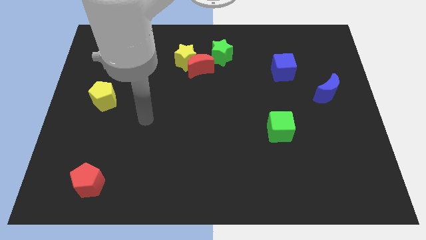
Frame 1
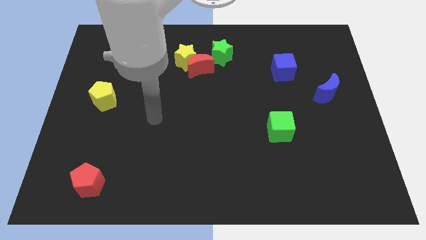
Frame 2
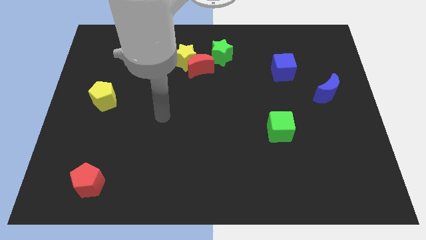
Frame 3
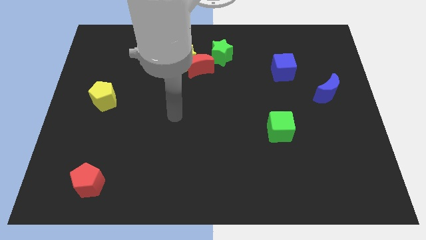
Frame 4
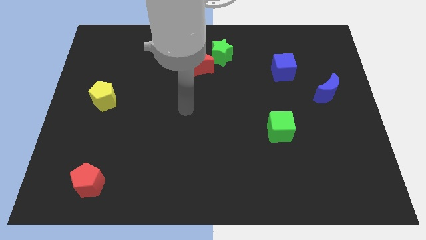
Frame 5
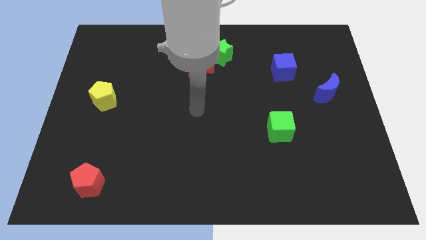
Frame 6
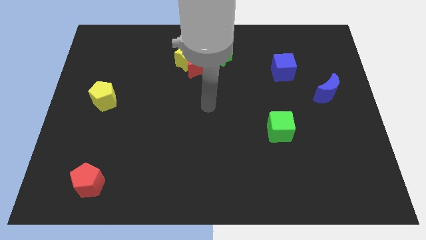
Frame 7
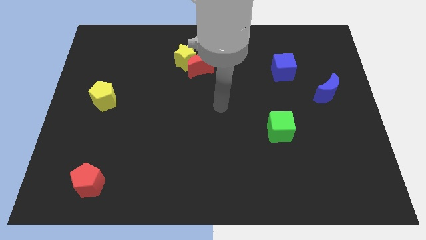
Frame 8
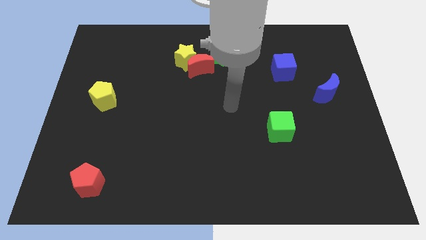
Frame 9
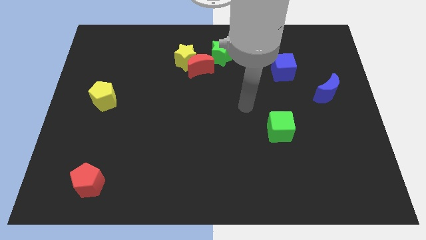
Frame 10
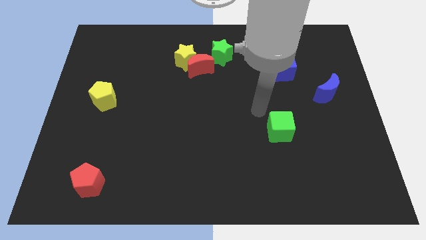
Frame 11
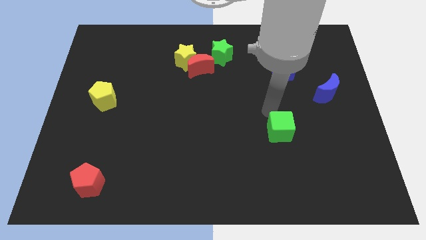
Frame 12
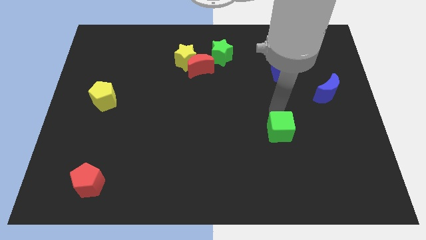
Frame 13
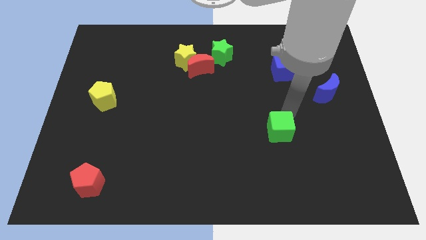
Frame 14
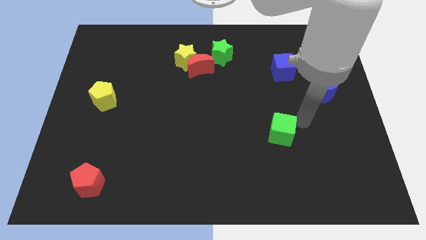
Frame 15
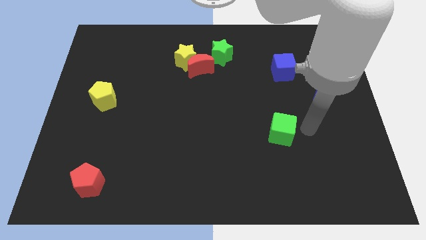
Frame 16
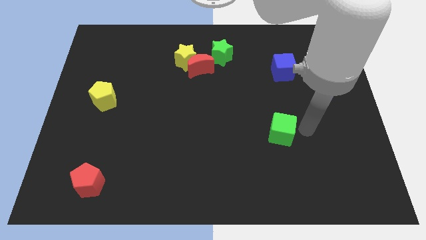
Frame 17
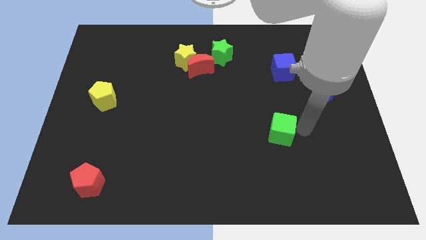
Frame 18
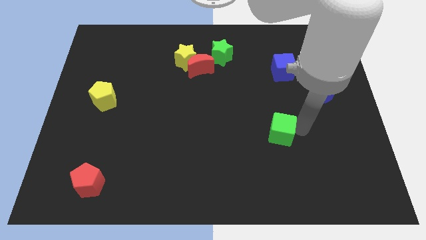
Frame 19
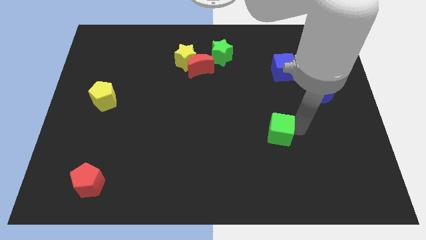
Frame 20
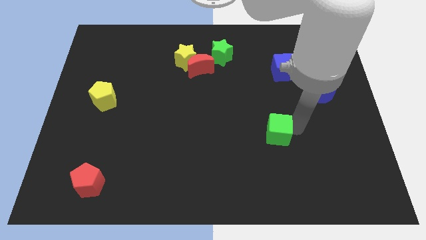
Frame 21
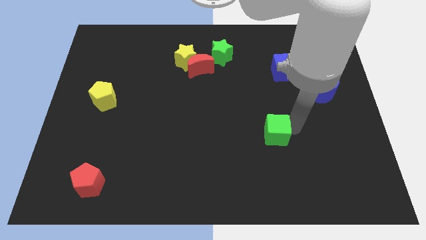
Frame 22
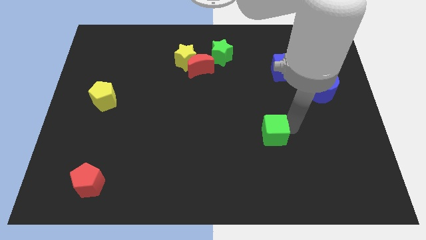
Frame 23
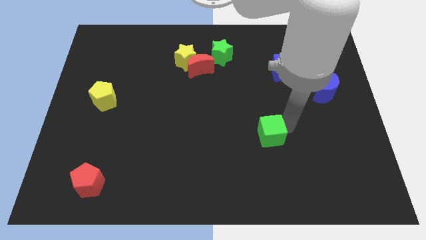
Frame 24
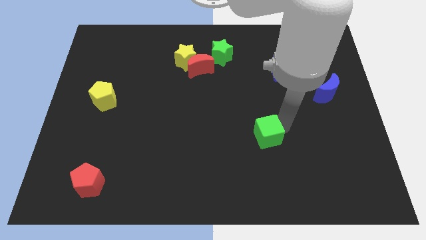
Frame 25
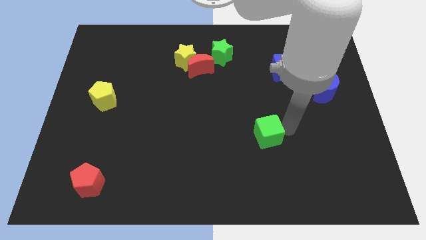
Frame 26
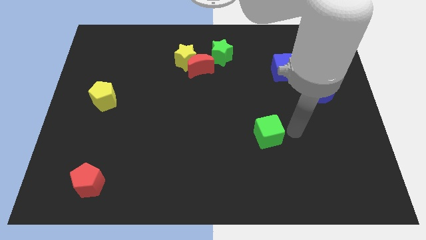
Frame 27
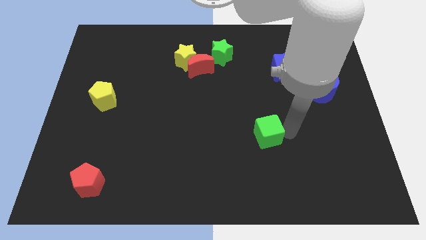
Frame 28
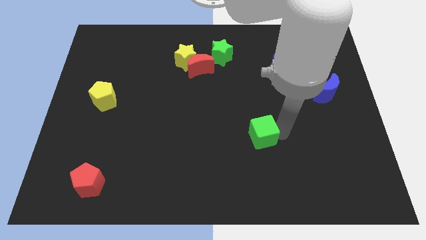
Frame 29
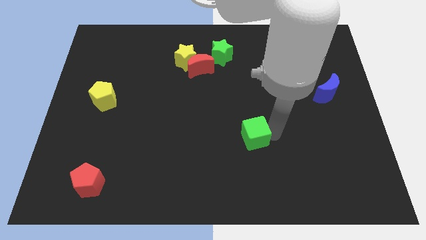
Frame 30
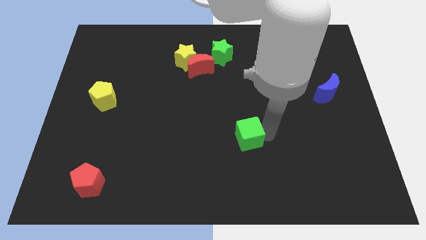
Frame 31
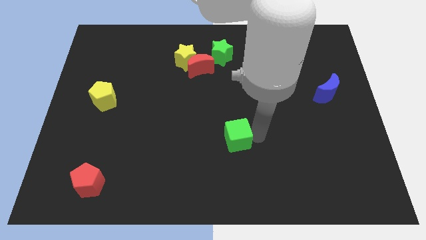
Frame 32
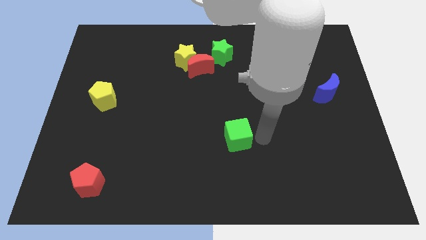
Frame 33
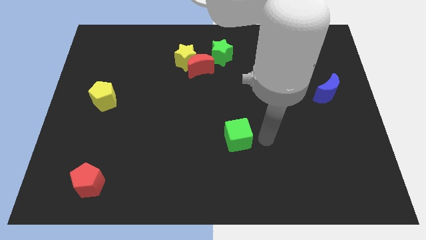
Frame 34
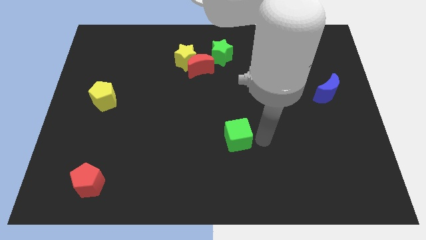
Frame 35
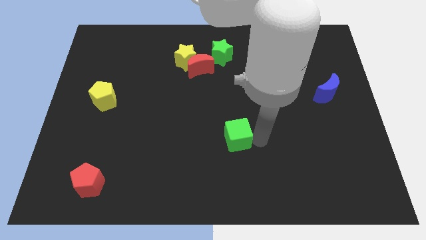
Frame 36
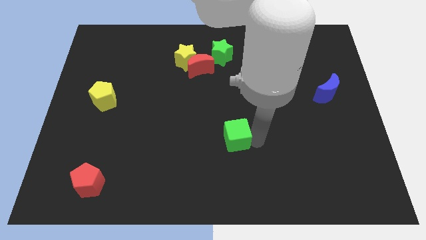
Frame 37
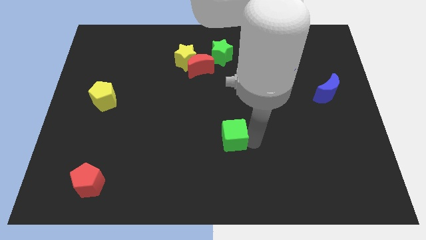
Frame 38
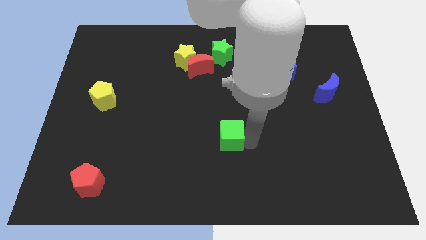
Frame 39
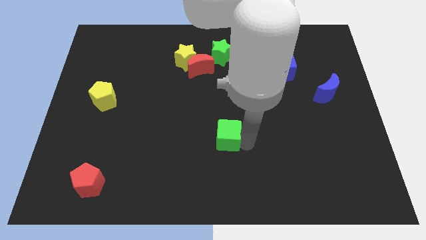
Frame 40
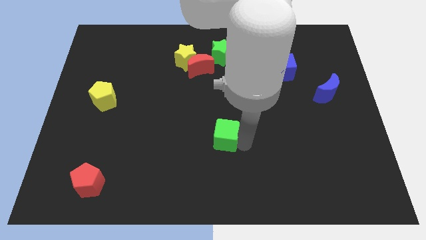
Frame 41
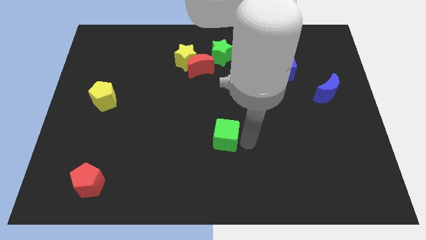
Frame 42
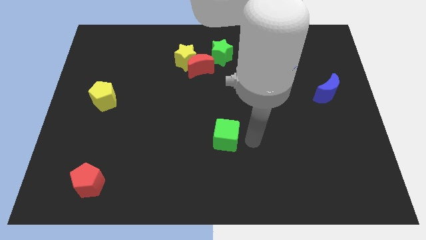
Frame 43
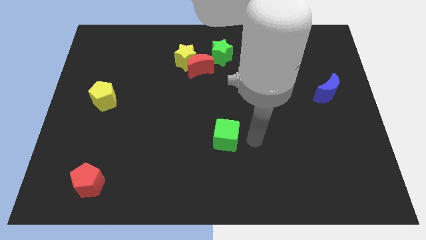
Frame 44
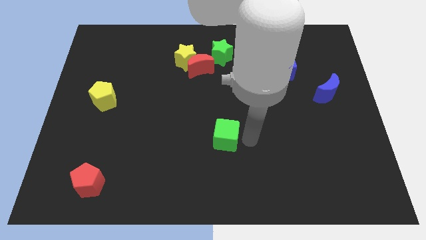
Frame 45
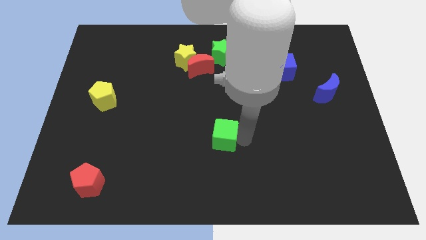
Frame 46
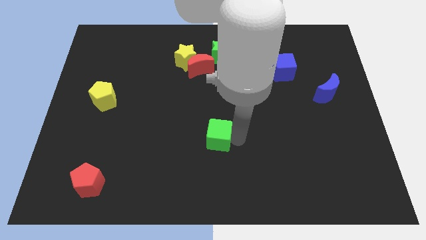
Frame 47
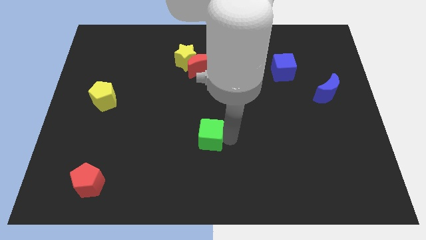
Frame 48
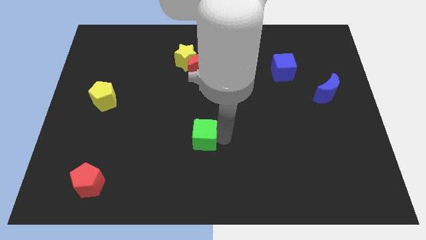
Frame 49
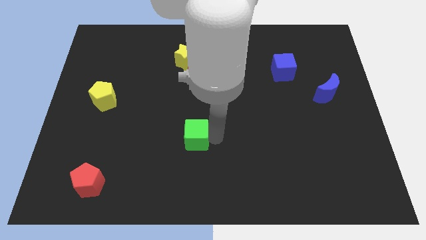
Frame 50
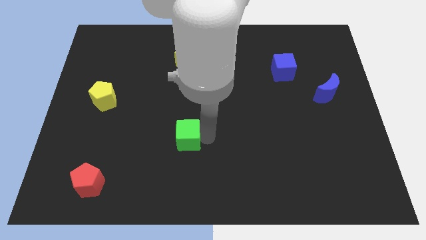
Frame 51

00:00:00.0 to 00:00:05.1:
push the green cube left

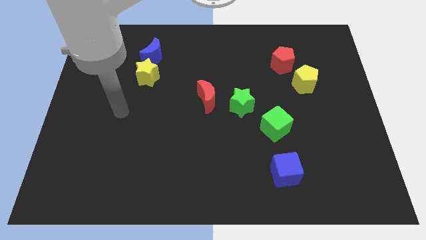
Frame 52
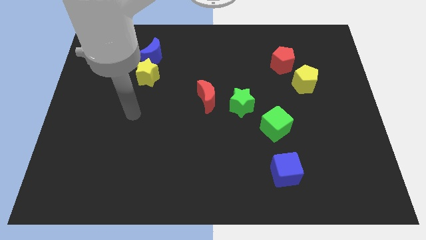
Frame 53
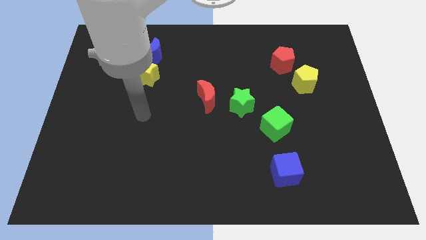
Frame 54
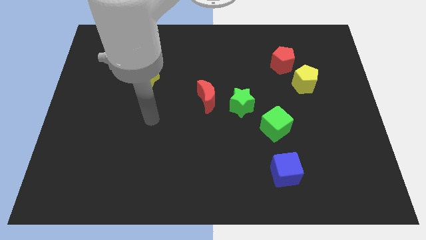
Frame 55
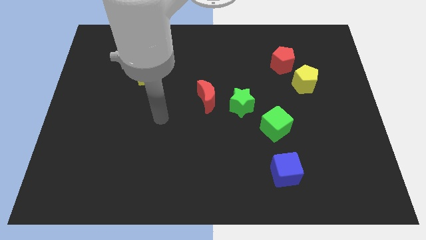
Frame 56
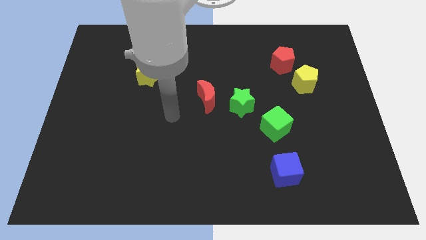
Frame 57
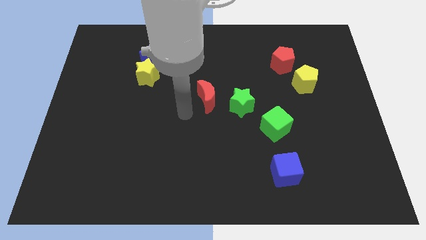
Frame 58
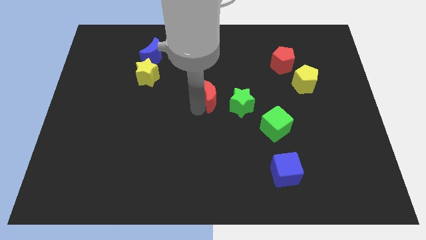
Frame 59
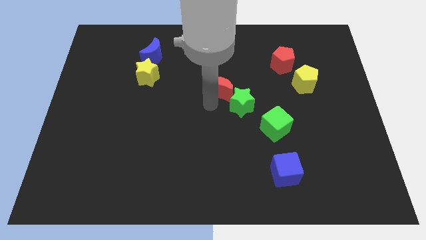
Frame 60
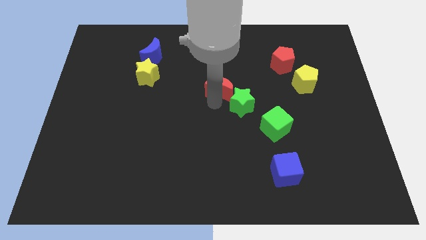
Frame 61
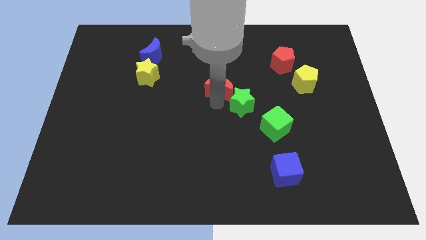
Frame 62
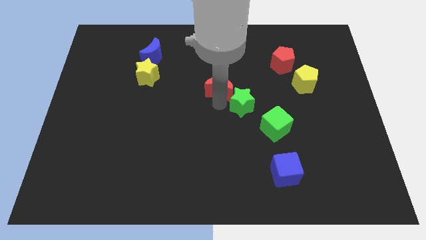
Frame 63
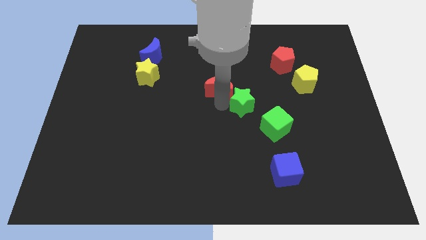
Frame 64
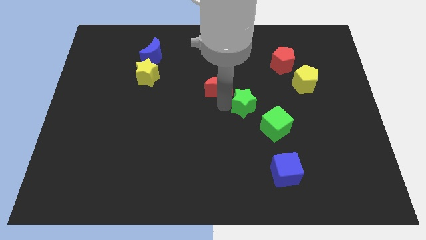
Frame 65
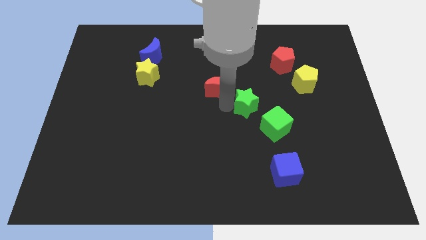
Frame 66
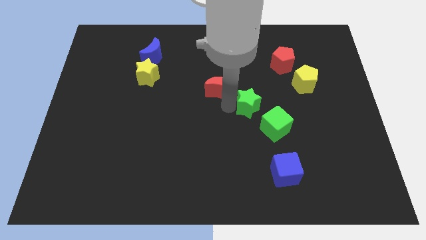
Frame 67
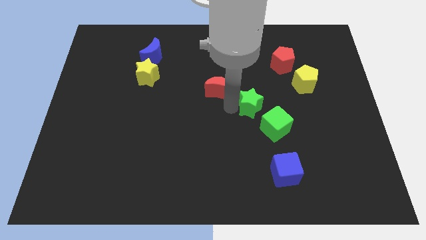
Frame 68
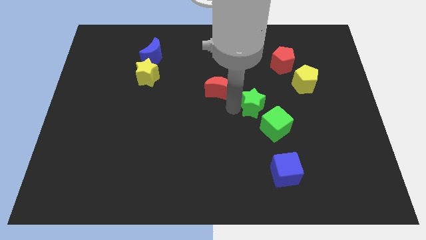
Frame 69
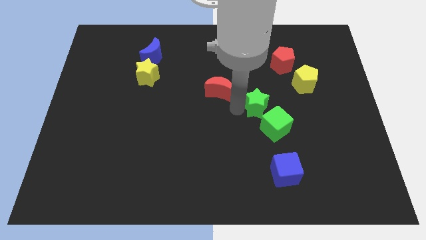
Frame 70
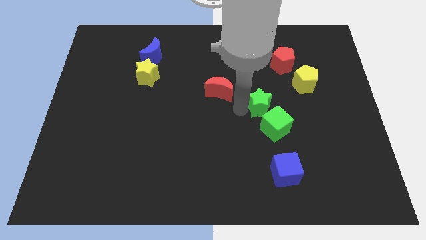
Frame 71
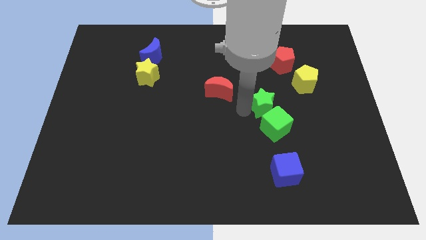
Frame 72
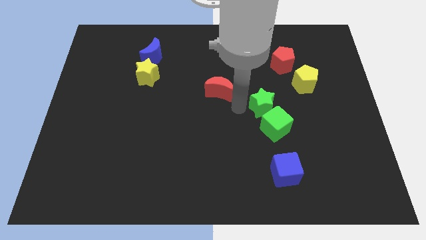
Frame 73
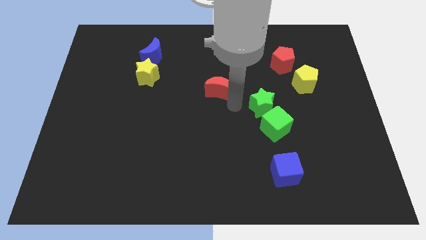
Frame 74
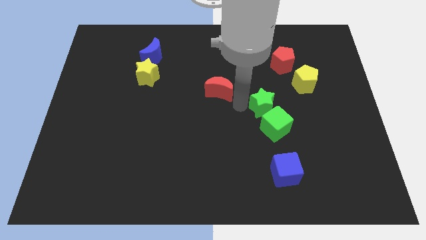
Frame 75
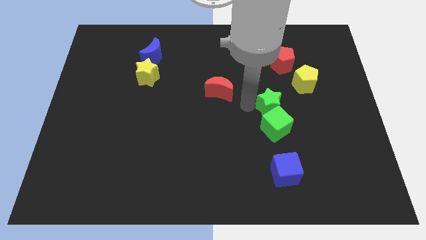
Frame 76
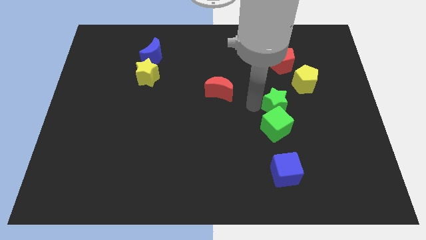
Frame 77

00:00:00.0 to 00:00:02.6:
slightly slide the green star to the right

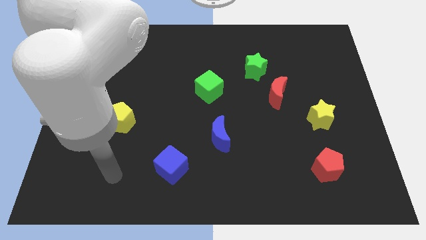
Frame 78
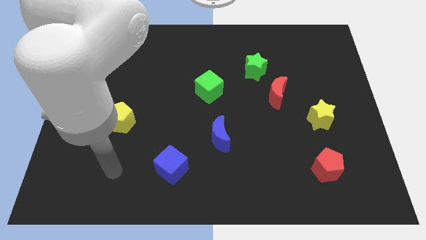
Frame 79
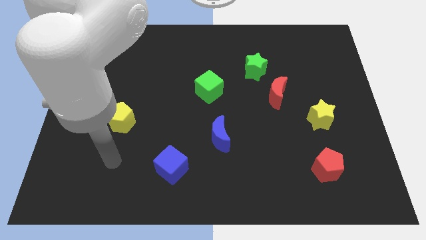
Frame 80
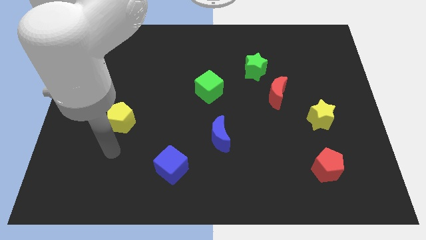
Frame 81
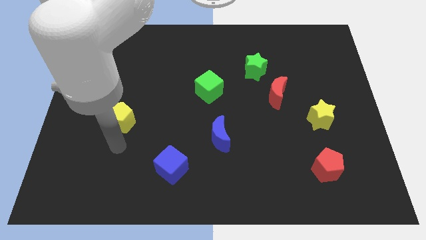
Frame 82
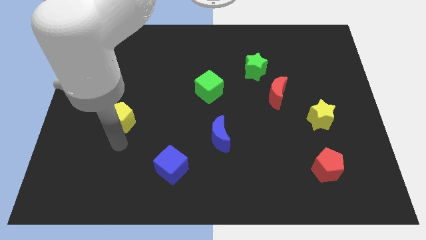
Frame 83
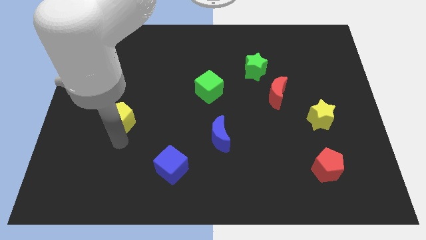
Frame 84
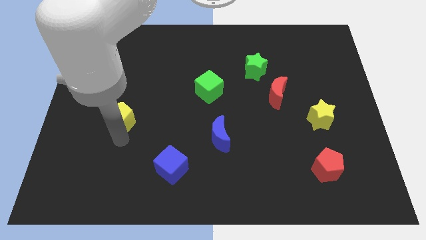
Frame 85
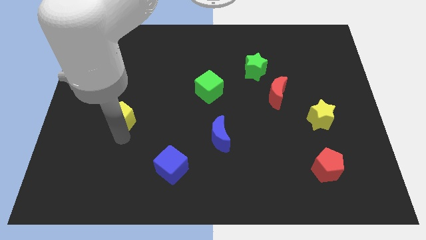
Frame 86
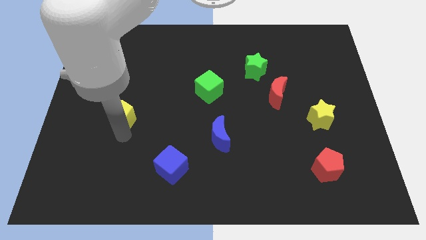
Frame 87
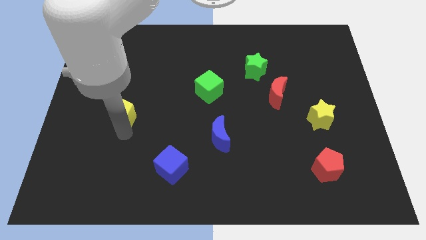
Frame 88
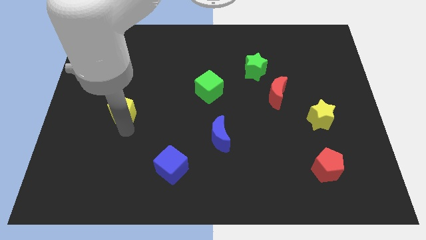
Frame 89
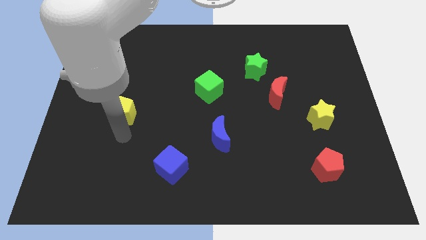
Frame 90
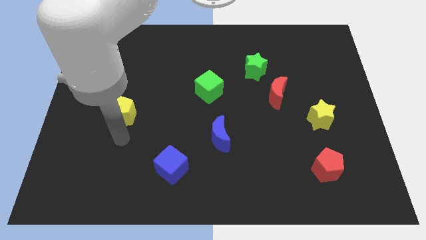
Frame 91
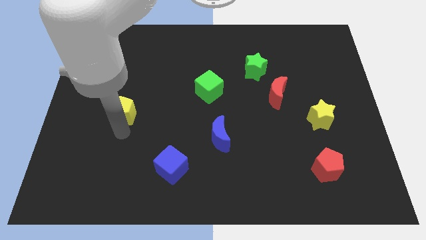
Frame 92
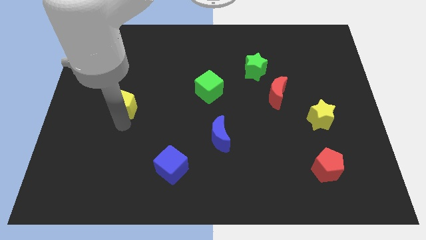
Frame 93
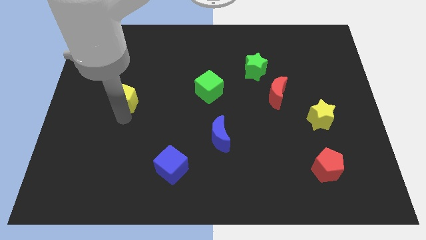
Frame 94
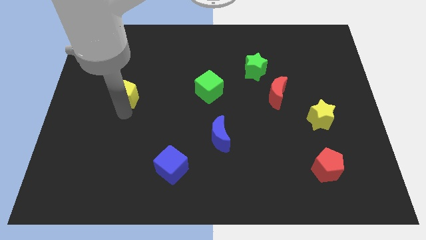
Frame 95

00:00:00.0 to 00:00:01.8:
move the yellow pentagon a little bit upwards
